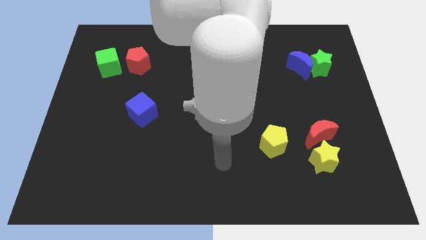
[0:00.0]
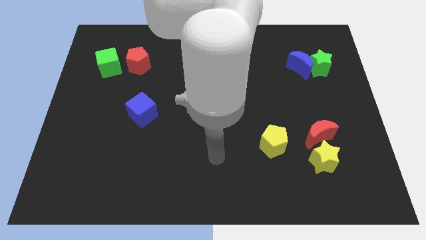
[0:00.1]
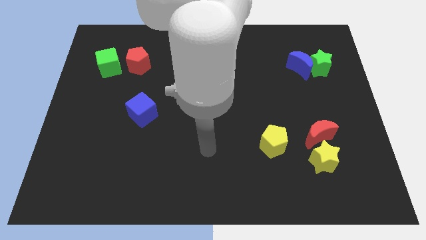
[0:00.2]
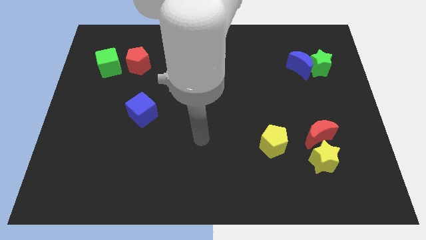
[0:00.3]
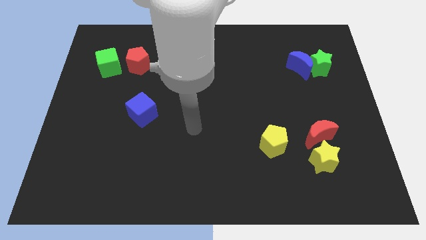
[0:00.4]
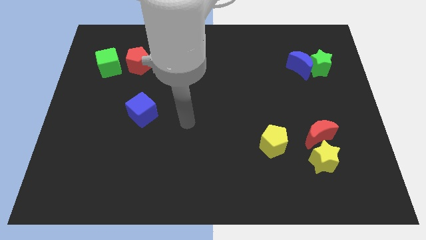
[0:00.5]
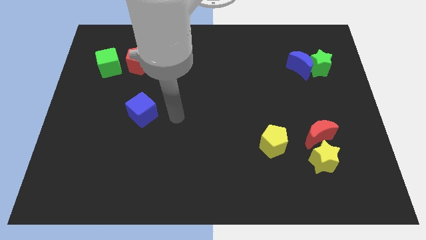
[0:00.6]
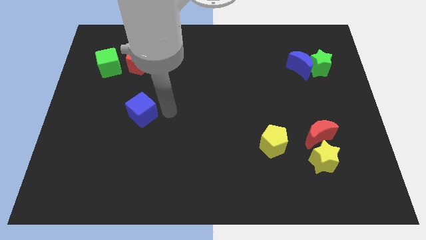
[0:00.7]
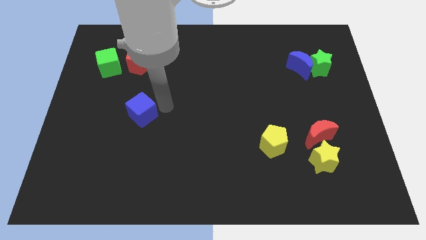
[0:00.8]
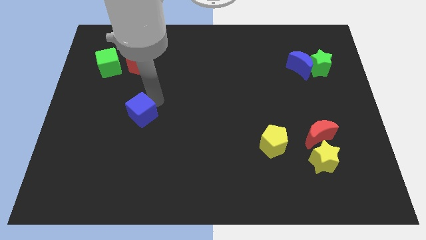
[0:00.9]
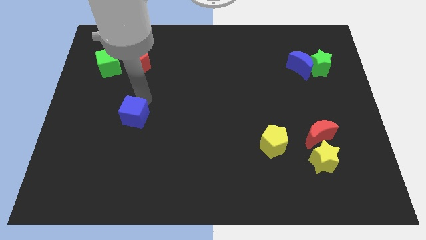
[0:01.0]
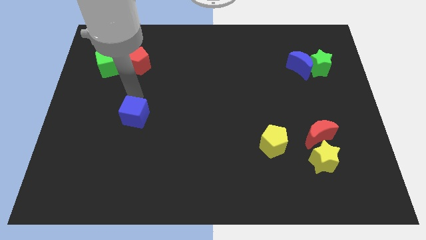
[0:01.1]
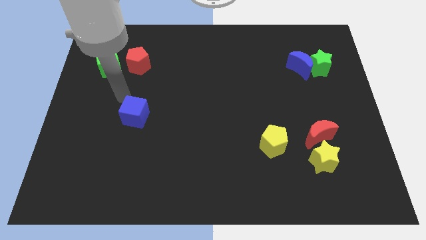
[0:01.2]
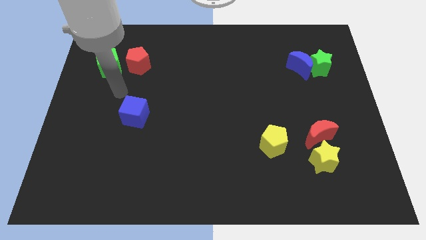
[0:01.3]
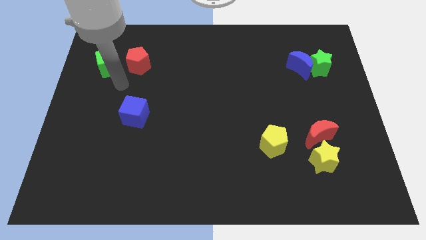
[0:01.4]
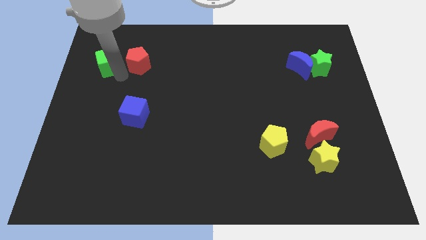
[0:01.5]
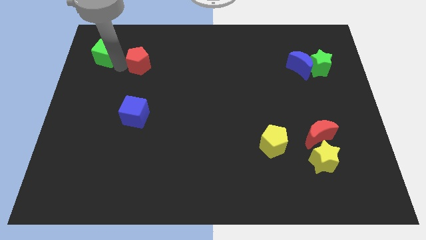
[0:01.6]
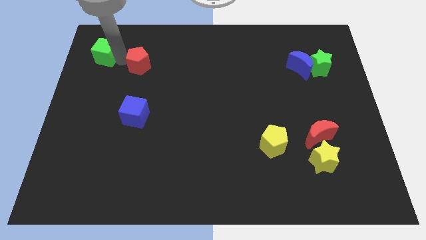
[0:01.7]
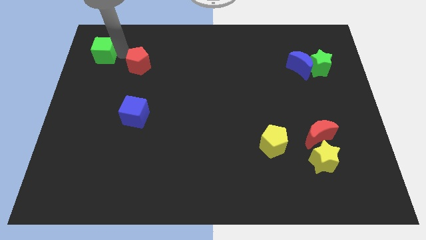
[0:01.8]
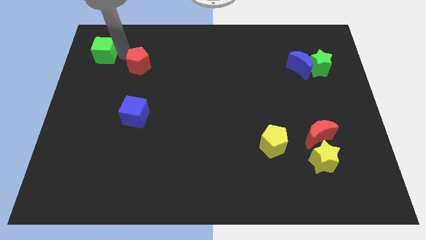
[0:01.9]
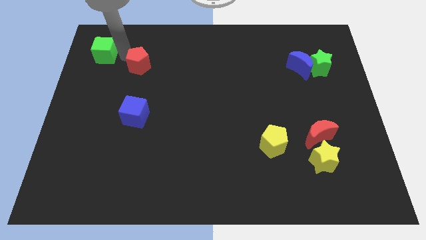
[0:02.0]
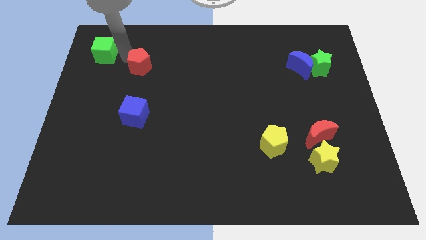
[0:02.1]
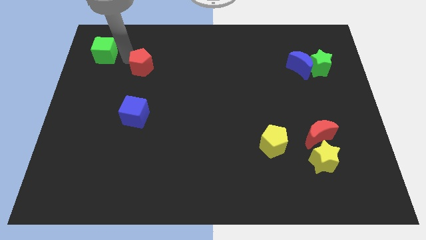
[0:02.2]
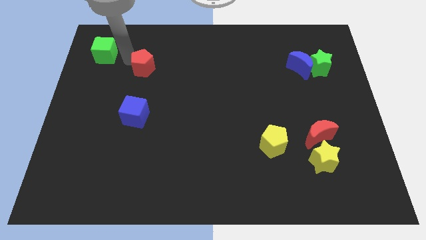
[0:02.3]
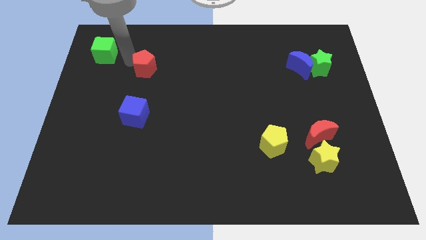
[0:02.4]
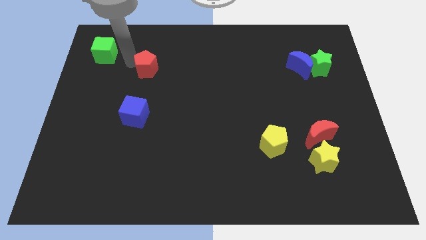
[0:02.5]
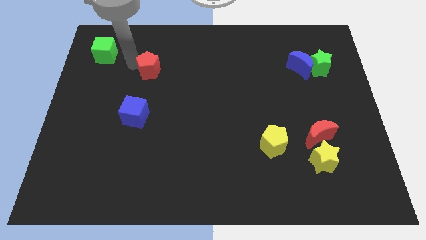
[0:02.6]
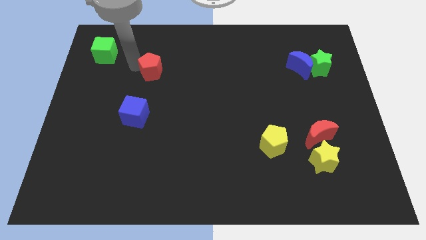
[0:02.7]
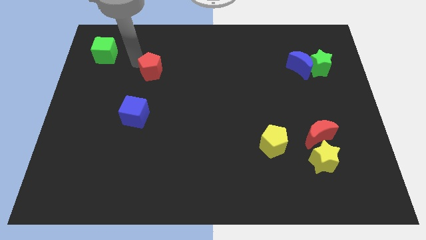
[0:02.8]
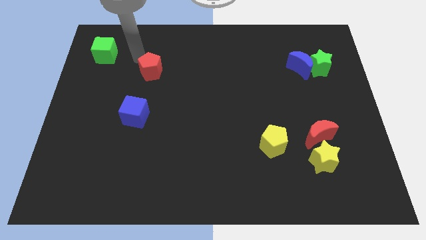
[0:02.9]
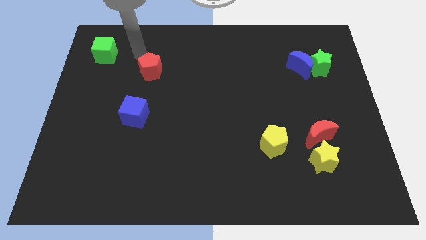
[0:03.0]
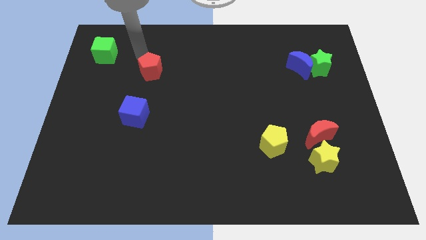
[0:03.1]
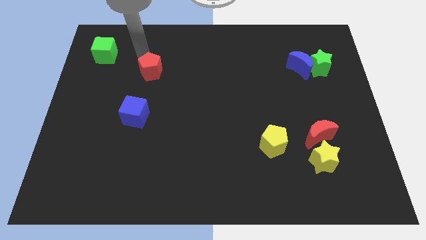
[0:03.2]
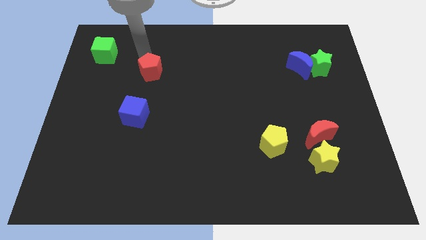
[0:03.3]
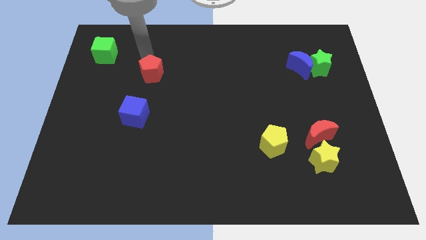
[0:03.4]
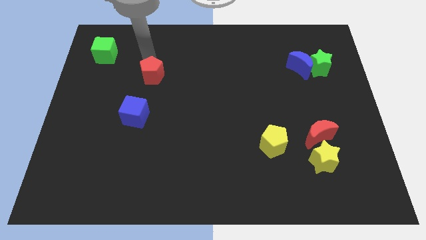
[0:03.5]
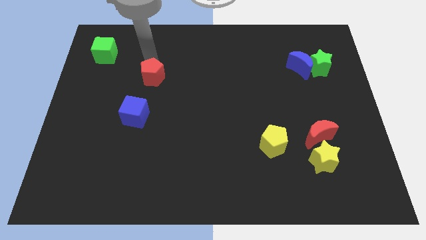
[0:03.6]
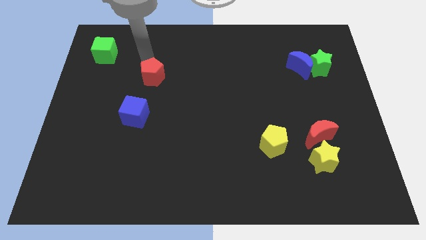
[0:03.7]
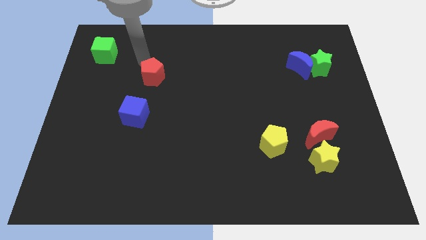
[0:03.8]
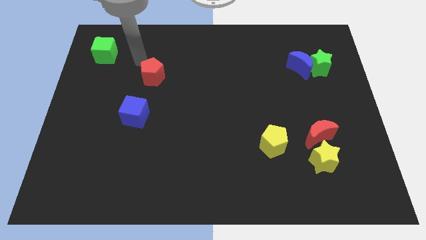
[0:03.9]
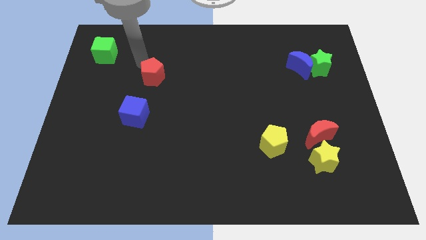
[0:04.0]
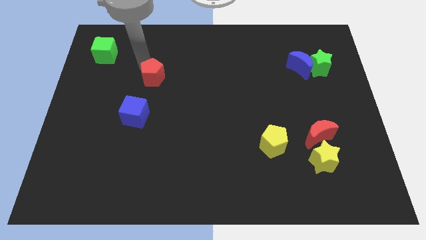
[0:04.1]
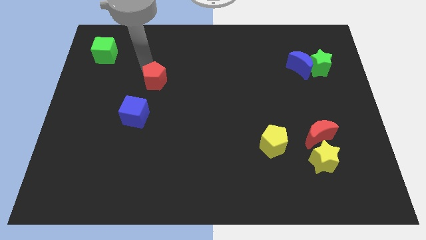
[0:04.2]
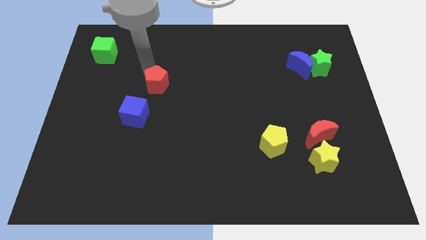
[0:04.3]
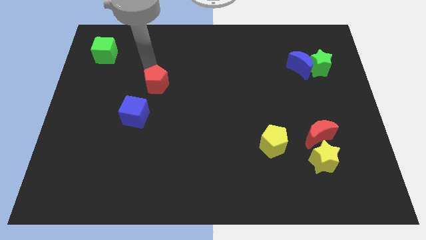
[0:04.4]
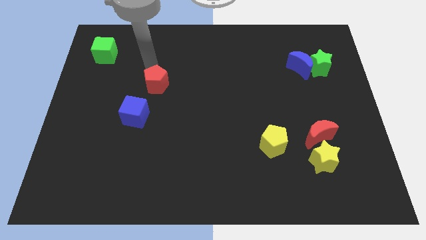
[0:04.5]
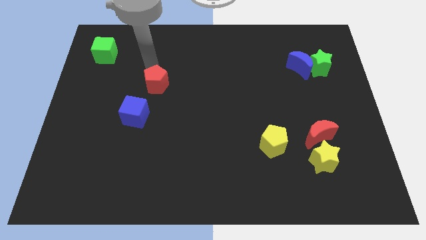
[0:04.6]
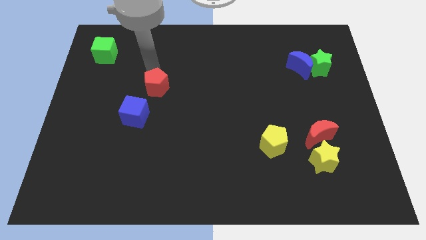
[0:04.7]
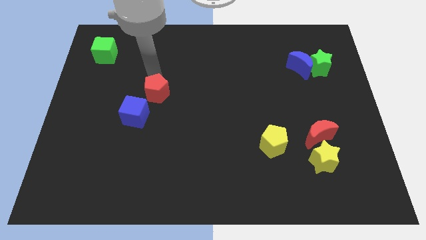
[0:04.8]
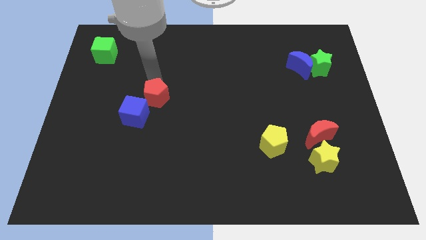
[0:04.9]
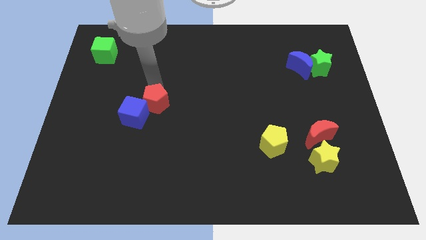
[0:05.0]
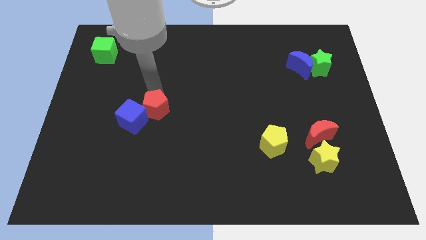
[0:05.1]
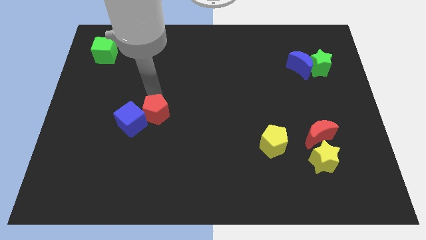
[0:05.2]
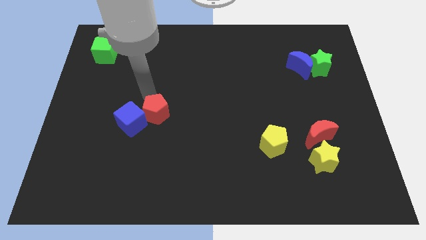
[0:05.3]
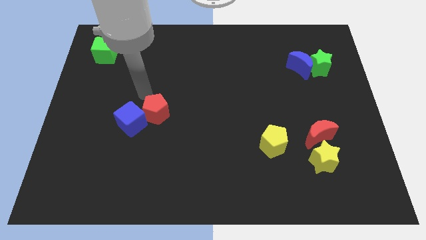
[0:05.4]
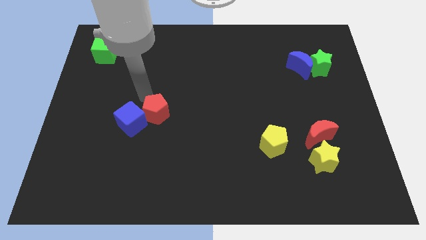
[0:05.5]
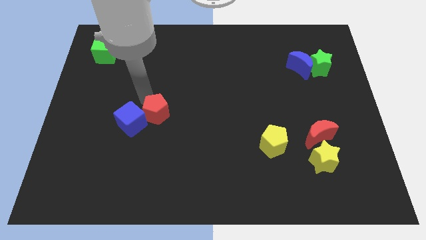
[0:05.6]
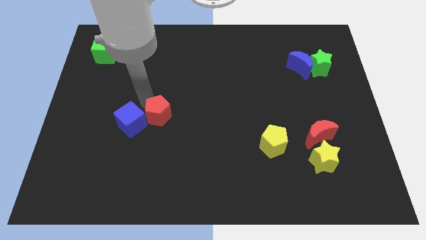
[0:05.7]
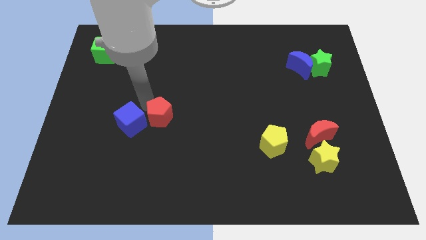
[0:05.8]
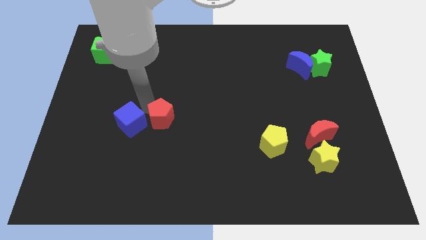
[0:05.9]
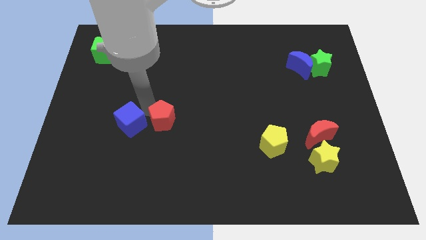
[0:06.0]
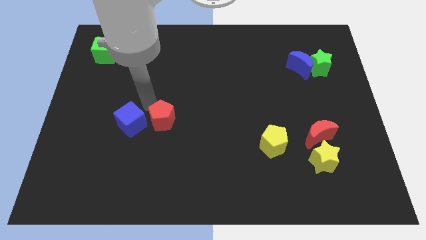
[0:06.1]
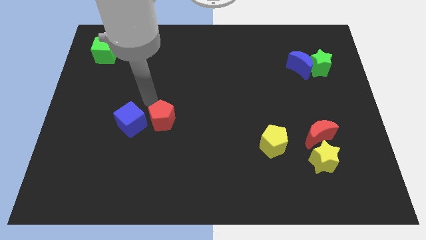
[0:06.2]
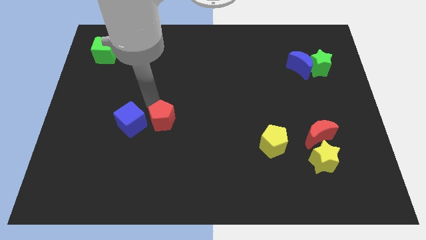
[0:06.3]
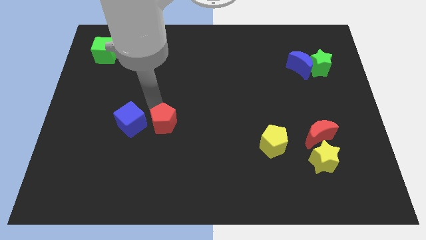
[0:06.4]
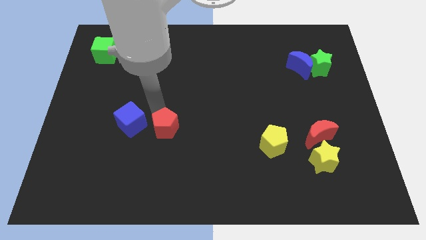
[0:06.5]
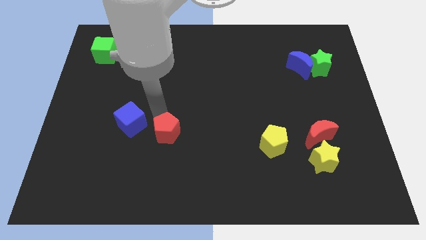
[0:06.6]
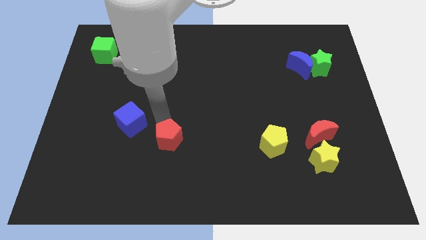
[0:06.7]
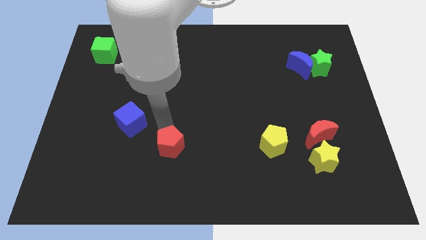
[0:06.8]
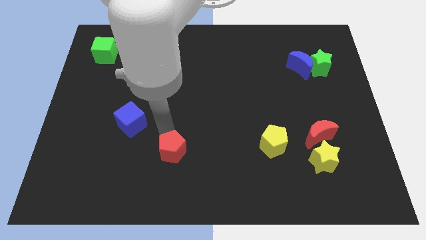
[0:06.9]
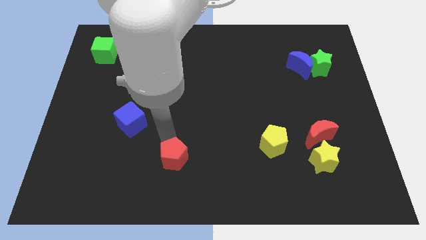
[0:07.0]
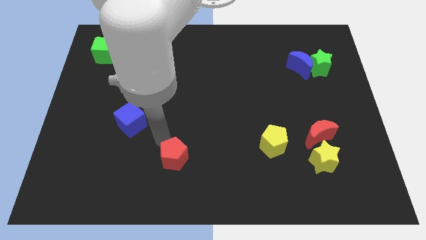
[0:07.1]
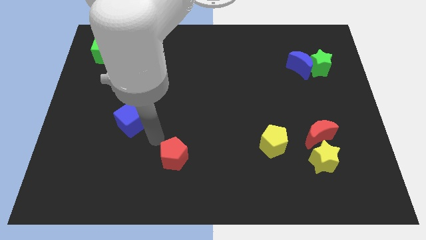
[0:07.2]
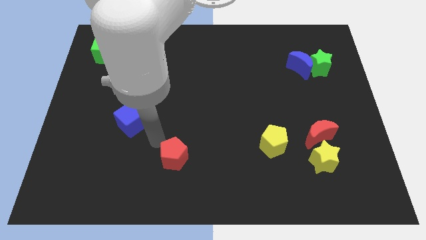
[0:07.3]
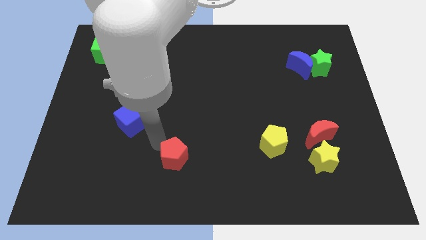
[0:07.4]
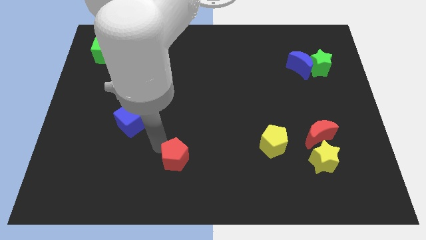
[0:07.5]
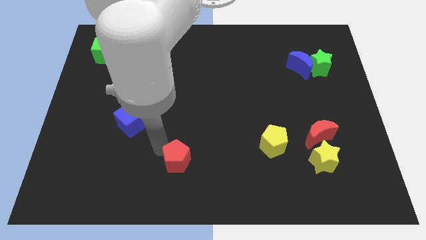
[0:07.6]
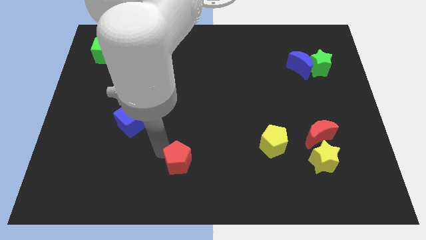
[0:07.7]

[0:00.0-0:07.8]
push the red pentagon to the bottom side
